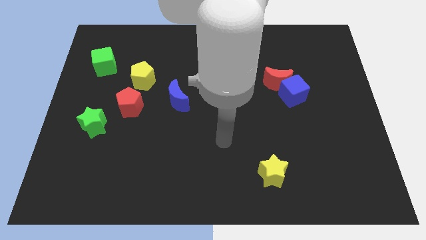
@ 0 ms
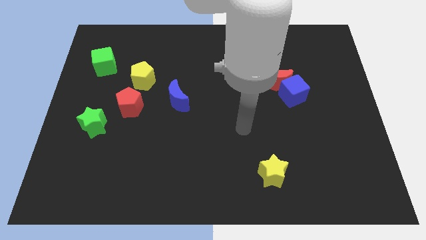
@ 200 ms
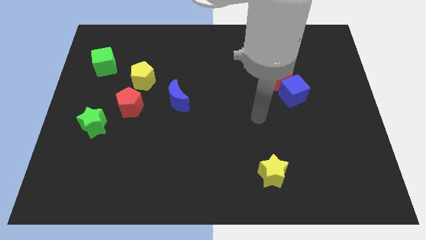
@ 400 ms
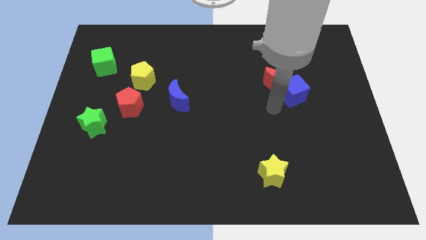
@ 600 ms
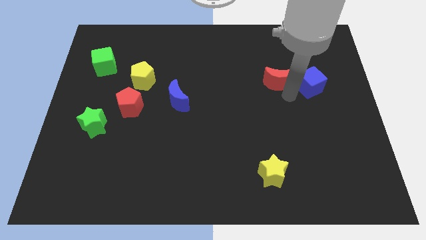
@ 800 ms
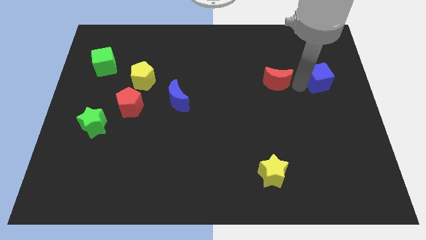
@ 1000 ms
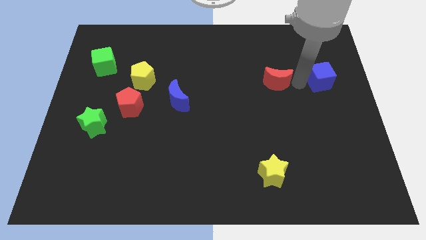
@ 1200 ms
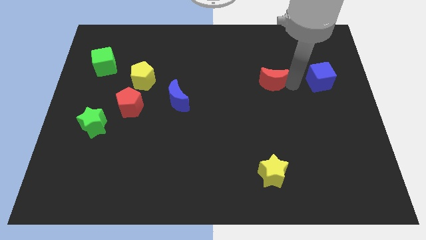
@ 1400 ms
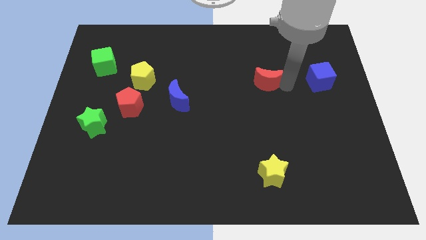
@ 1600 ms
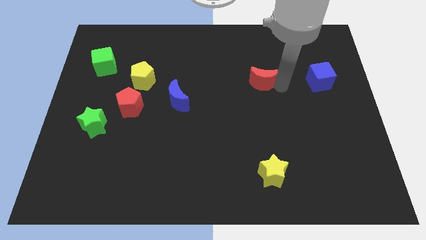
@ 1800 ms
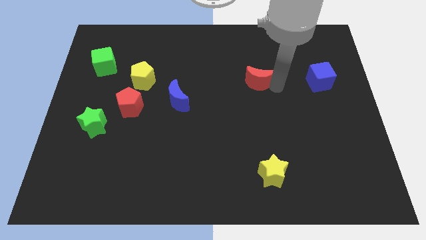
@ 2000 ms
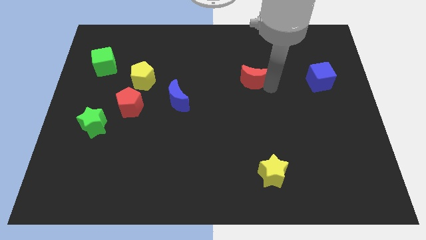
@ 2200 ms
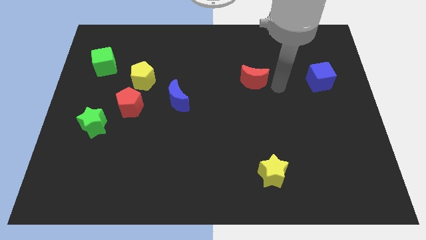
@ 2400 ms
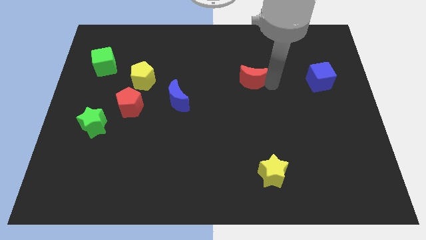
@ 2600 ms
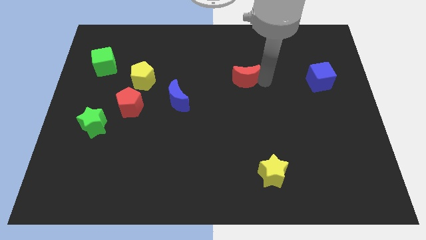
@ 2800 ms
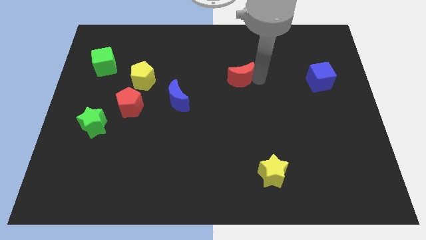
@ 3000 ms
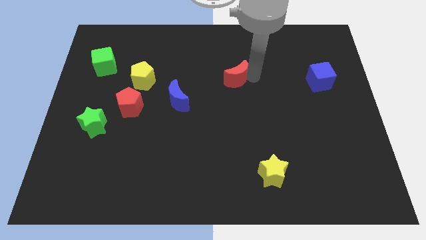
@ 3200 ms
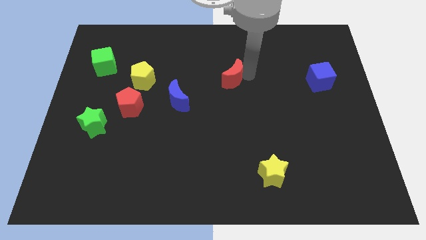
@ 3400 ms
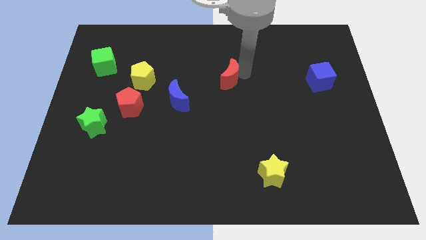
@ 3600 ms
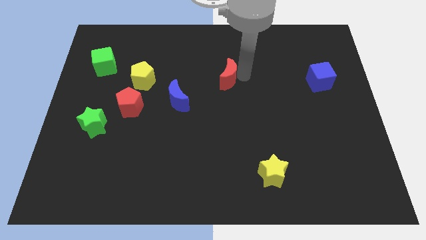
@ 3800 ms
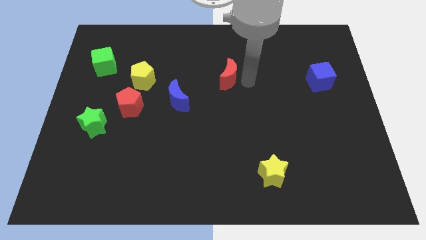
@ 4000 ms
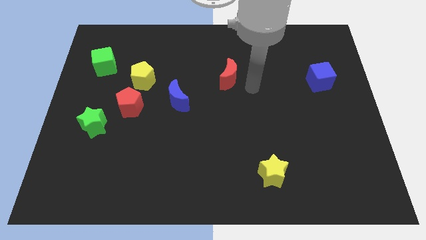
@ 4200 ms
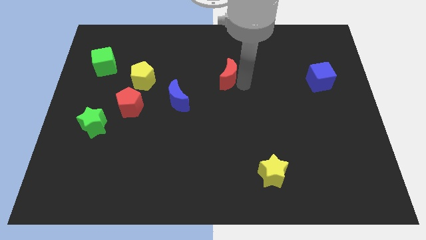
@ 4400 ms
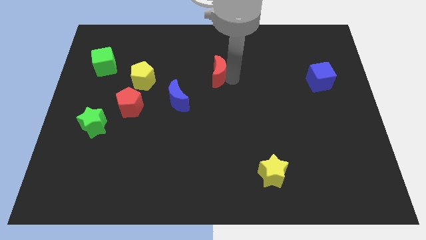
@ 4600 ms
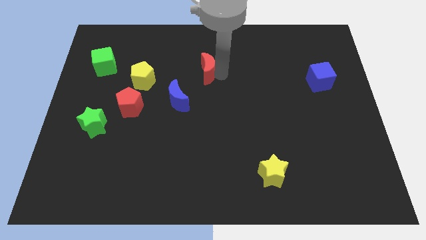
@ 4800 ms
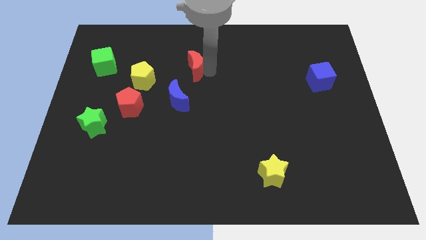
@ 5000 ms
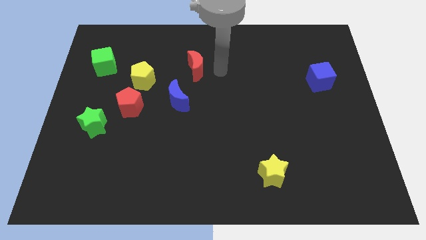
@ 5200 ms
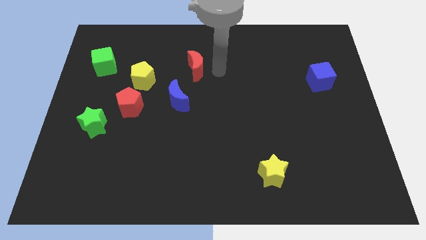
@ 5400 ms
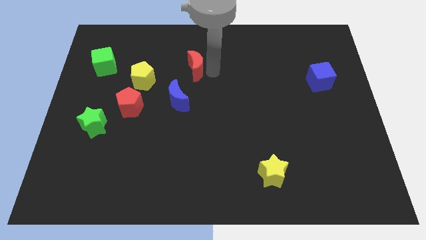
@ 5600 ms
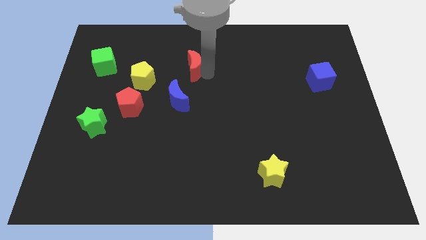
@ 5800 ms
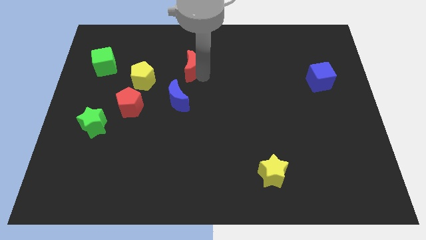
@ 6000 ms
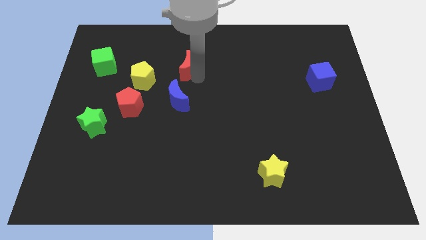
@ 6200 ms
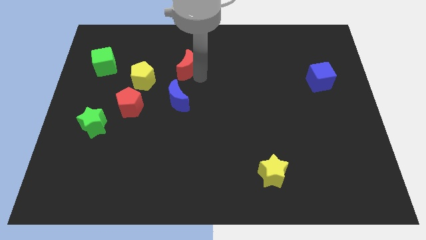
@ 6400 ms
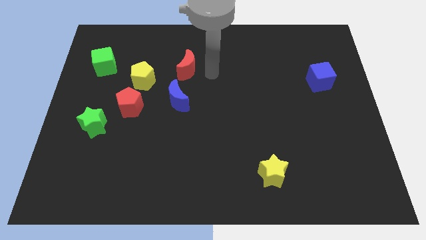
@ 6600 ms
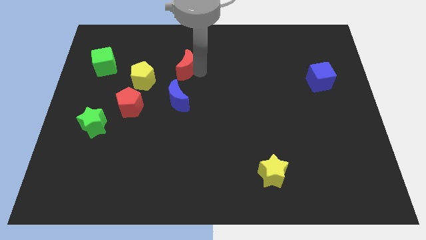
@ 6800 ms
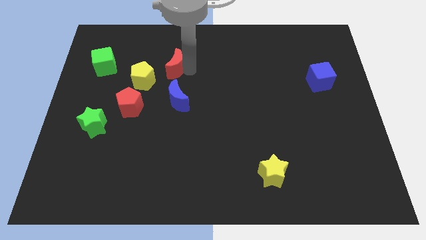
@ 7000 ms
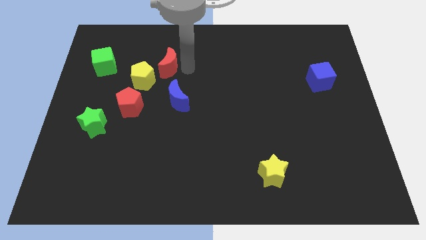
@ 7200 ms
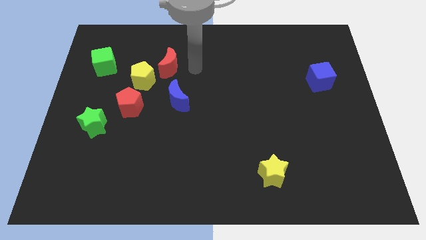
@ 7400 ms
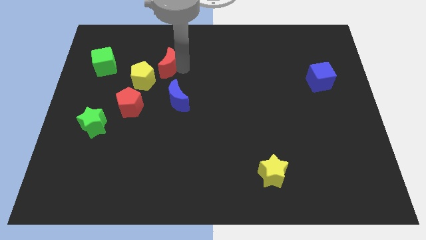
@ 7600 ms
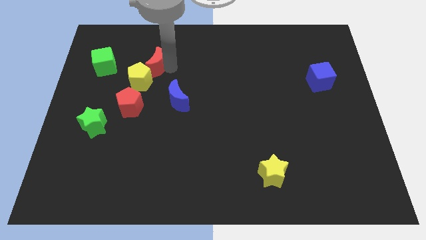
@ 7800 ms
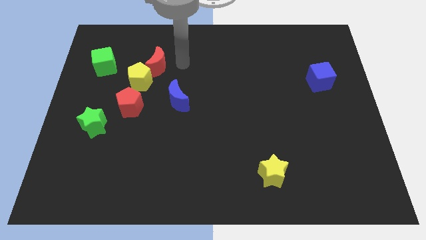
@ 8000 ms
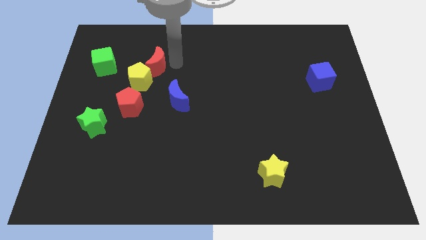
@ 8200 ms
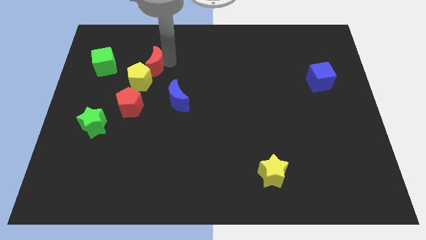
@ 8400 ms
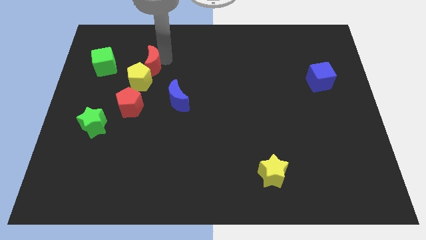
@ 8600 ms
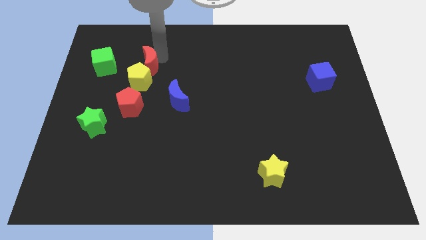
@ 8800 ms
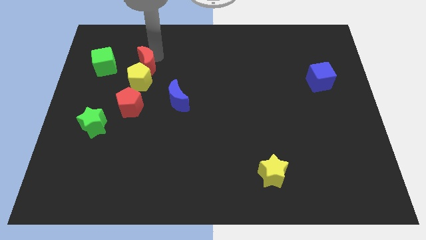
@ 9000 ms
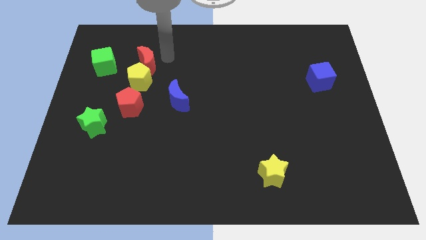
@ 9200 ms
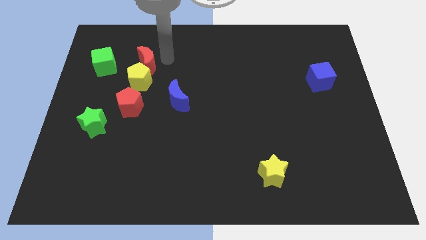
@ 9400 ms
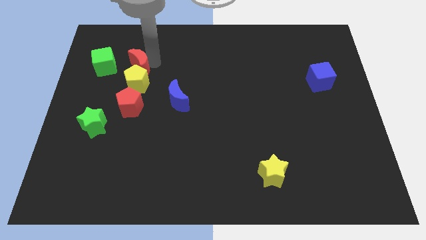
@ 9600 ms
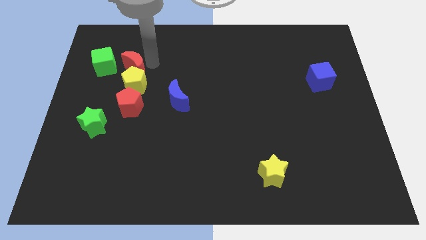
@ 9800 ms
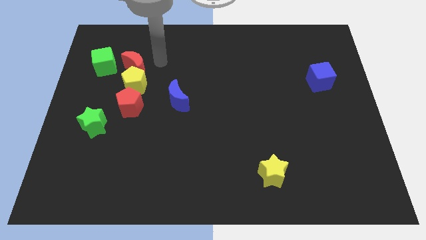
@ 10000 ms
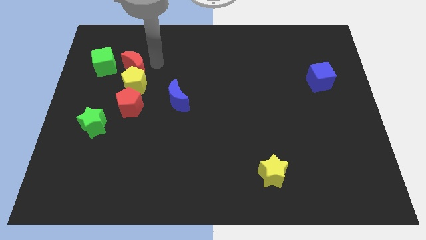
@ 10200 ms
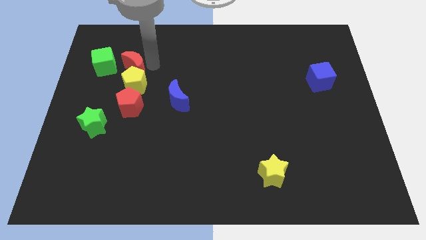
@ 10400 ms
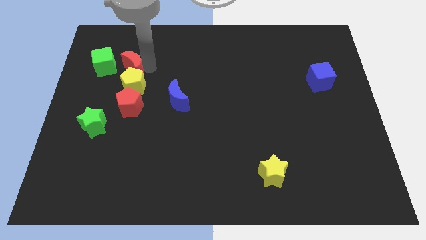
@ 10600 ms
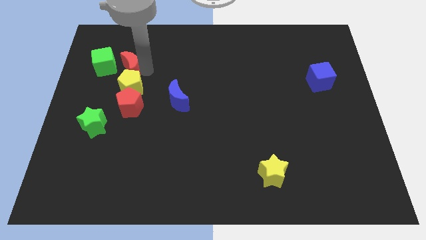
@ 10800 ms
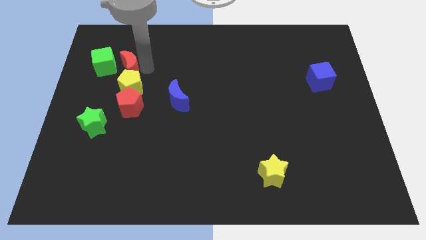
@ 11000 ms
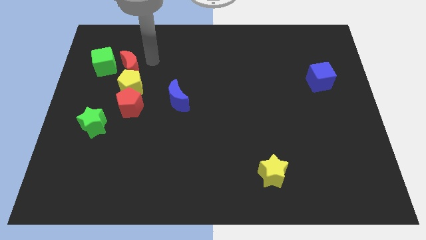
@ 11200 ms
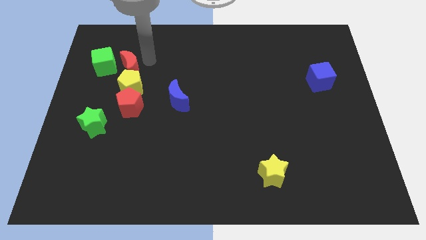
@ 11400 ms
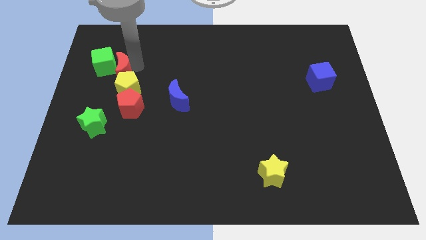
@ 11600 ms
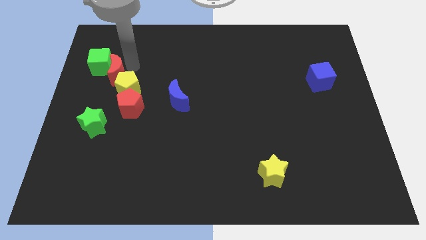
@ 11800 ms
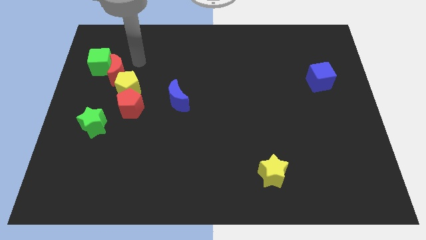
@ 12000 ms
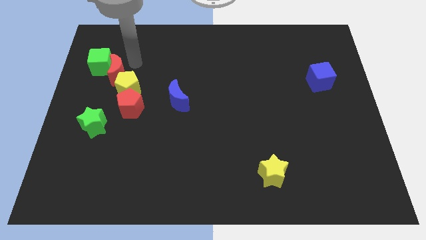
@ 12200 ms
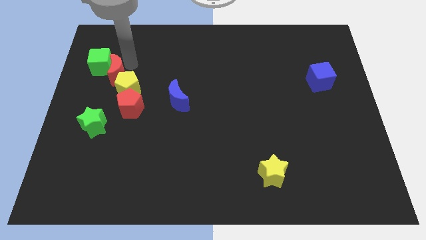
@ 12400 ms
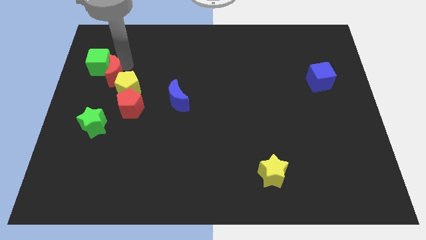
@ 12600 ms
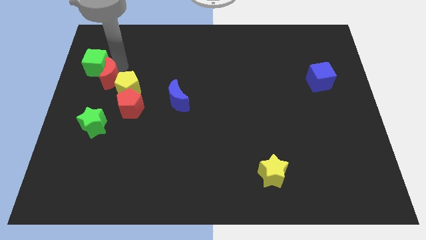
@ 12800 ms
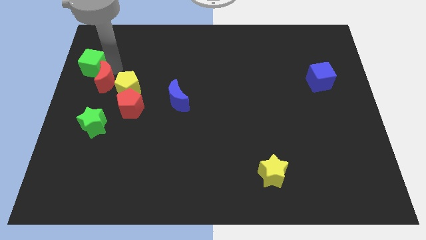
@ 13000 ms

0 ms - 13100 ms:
put the red moon to the center left
